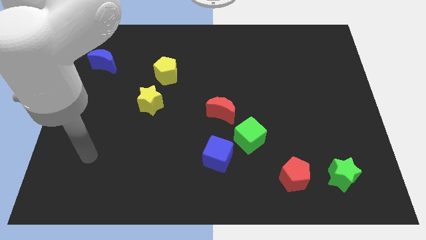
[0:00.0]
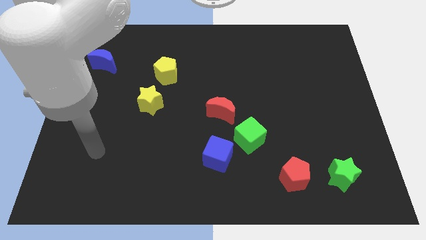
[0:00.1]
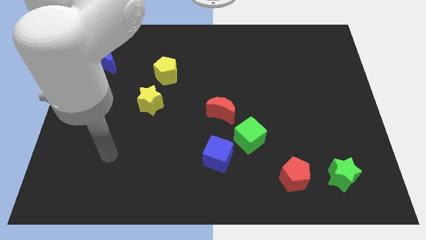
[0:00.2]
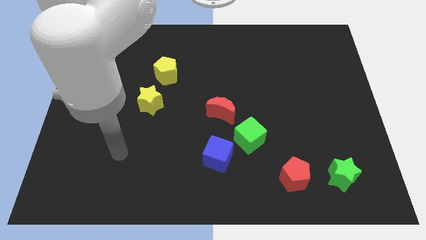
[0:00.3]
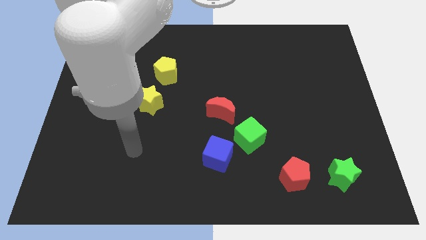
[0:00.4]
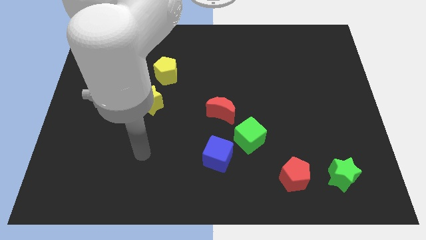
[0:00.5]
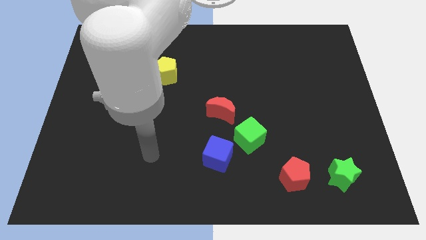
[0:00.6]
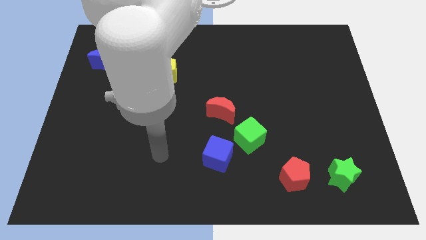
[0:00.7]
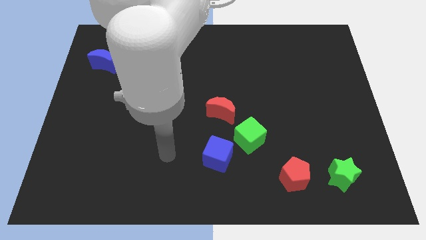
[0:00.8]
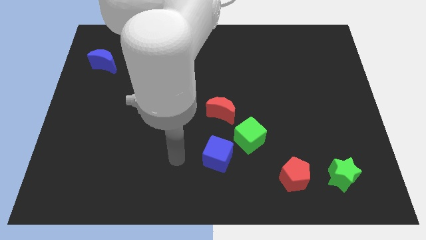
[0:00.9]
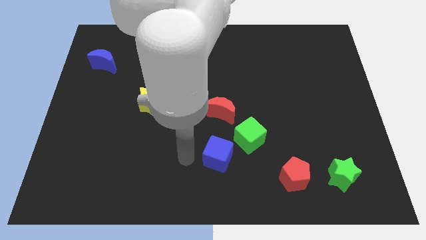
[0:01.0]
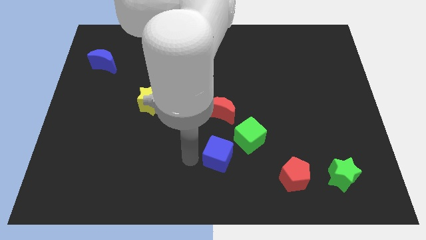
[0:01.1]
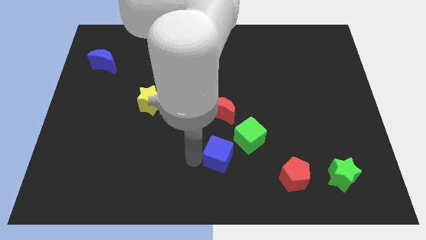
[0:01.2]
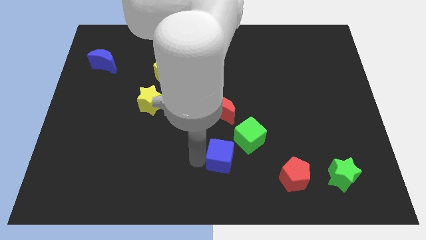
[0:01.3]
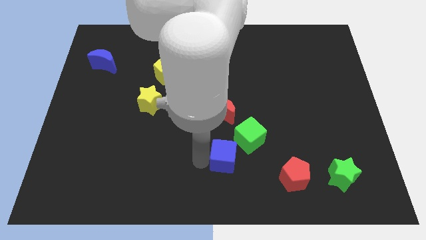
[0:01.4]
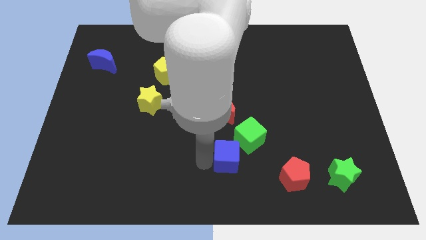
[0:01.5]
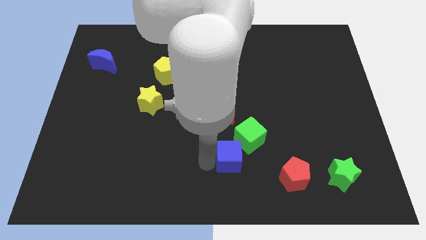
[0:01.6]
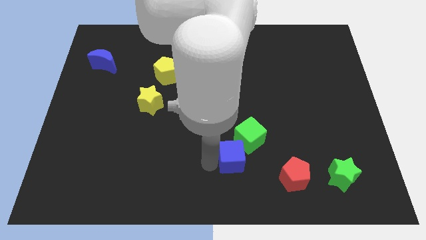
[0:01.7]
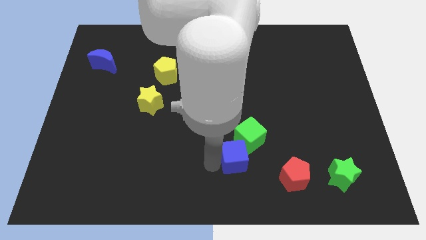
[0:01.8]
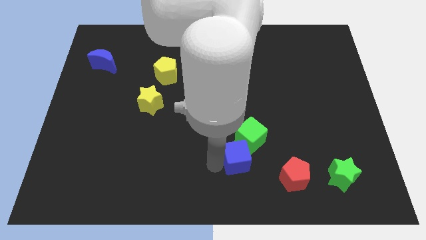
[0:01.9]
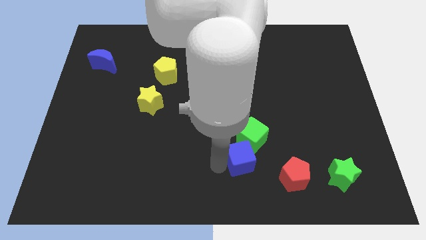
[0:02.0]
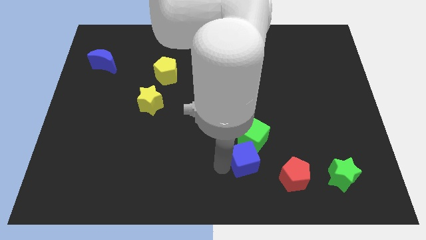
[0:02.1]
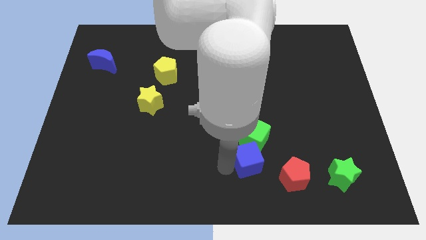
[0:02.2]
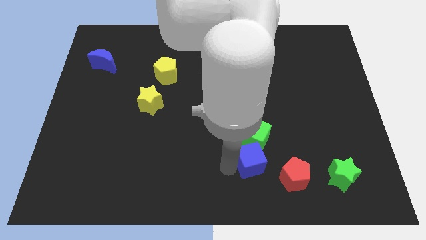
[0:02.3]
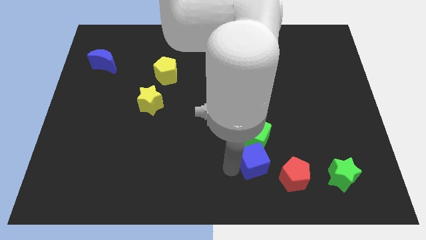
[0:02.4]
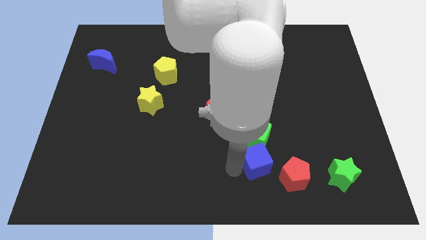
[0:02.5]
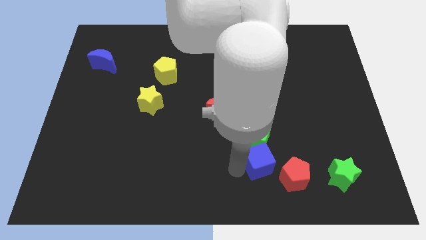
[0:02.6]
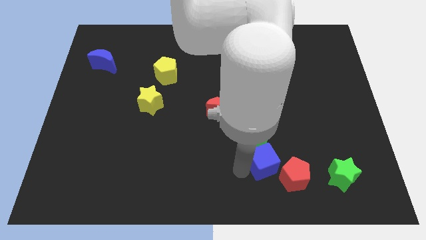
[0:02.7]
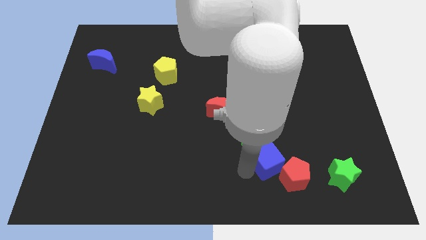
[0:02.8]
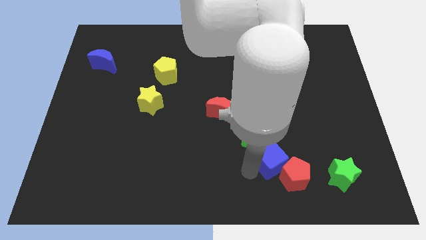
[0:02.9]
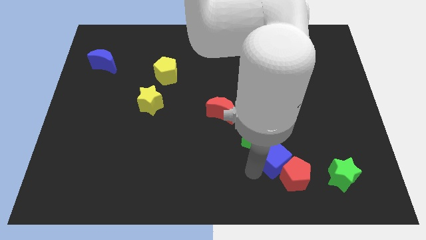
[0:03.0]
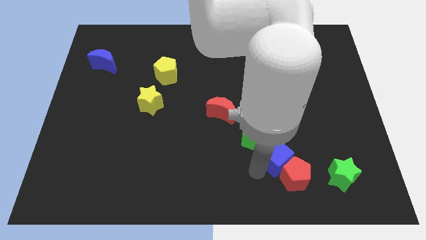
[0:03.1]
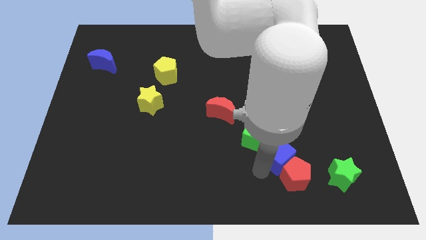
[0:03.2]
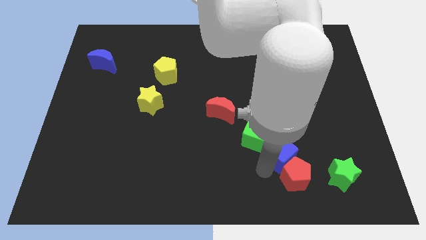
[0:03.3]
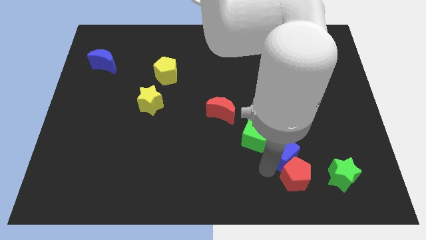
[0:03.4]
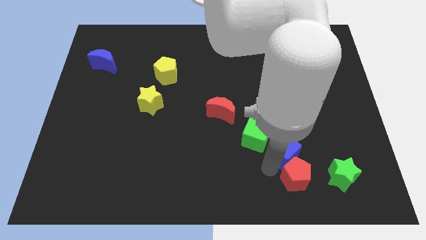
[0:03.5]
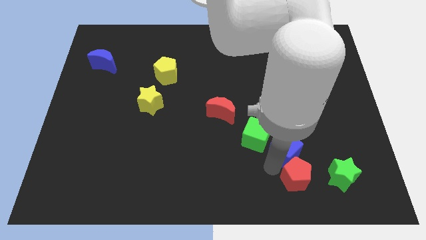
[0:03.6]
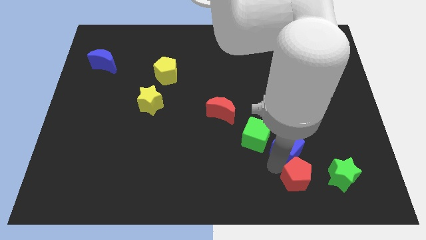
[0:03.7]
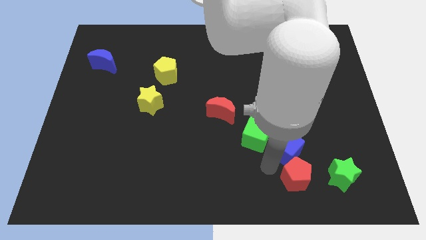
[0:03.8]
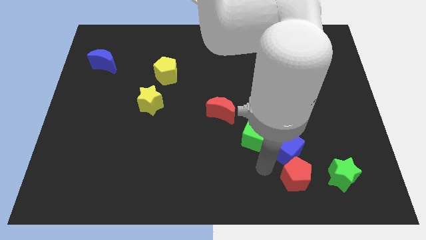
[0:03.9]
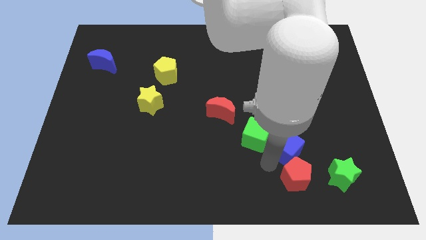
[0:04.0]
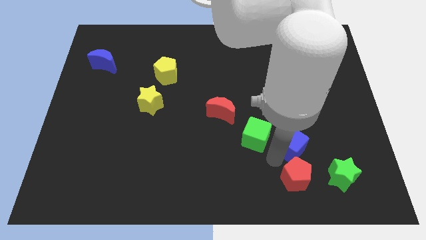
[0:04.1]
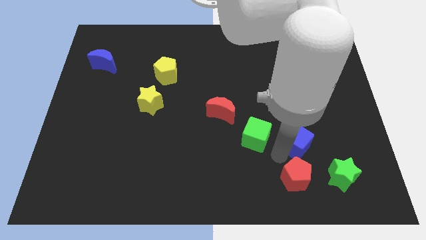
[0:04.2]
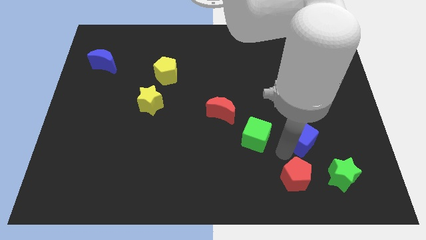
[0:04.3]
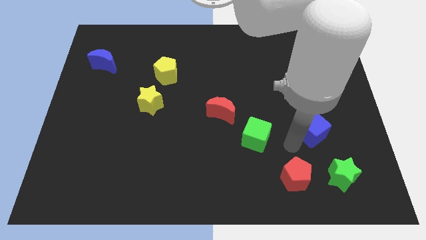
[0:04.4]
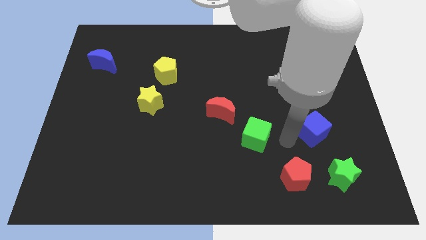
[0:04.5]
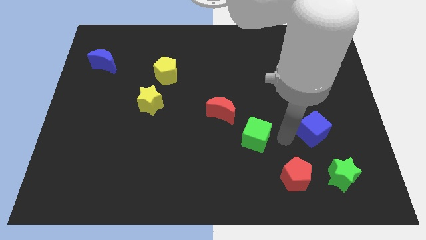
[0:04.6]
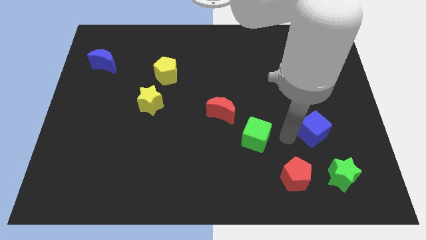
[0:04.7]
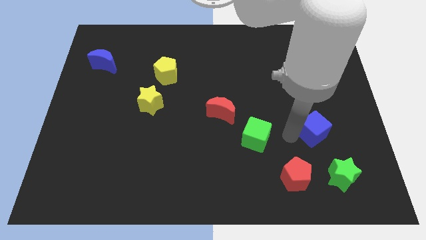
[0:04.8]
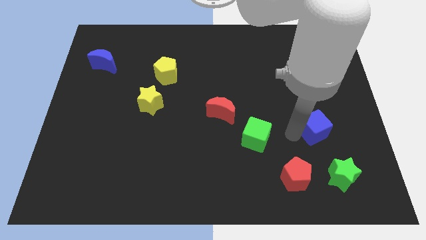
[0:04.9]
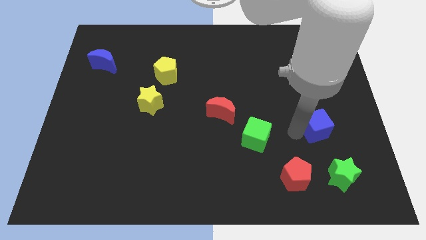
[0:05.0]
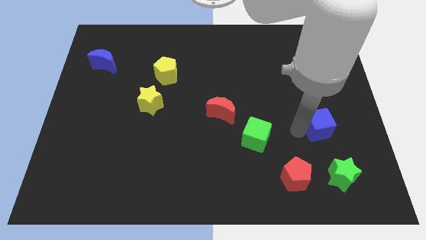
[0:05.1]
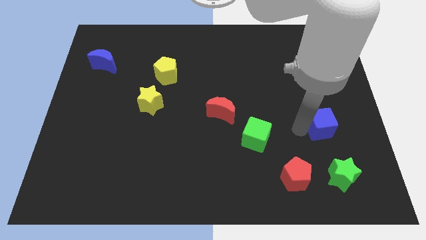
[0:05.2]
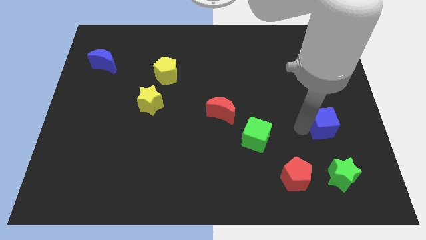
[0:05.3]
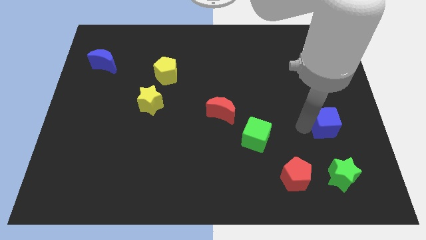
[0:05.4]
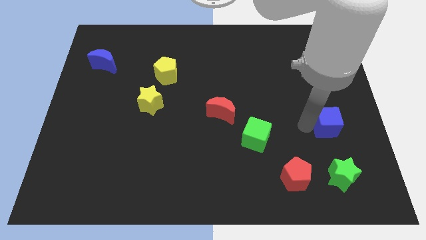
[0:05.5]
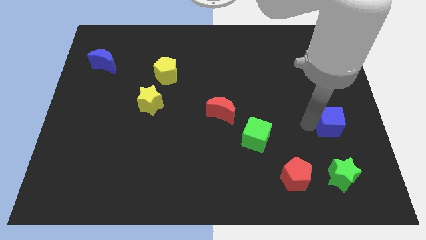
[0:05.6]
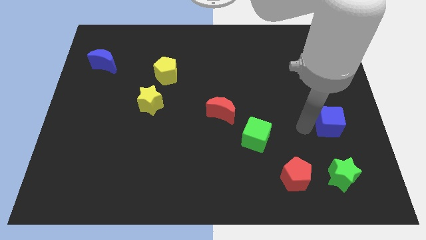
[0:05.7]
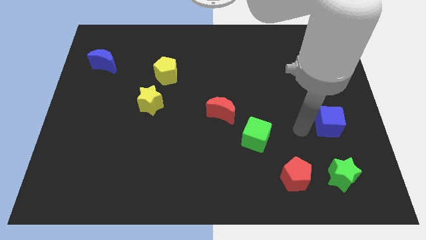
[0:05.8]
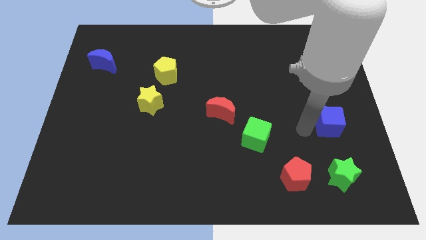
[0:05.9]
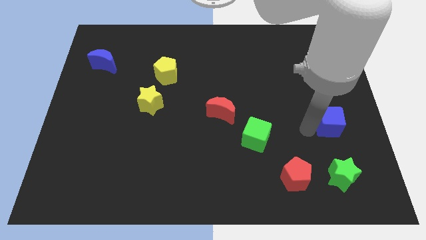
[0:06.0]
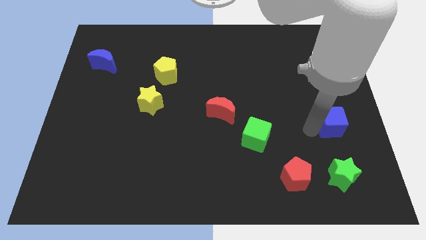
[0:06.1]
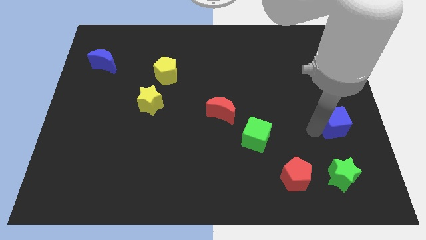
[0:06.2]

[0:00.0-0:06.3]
move the blue cube to the center right

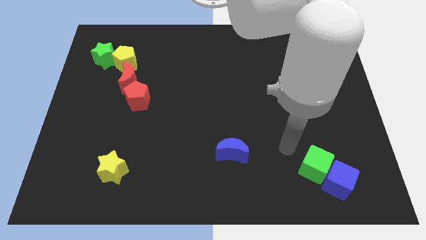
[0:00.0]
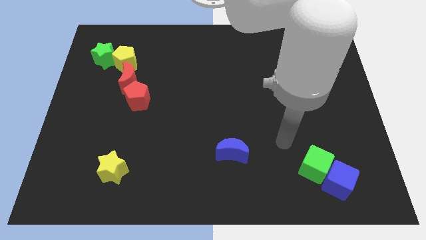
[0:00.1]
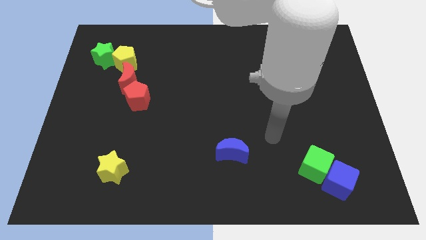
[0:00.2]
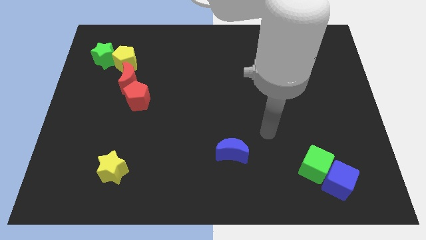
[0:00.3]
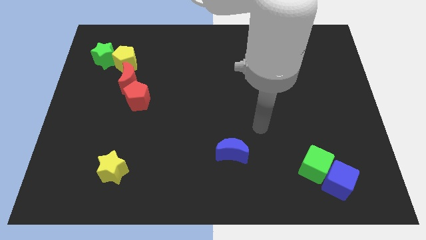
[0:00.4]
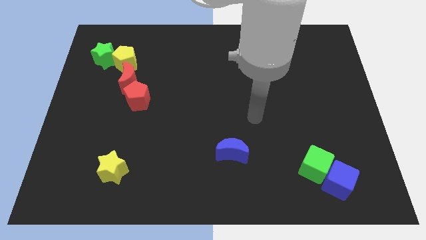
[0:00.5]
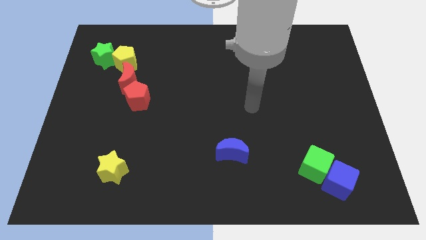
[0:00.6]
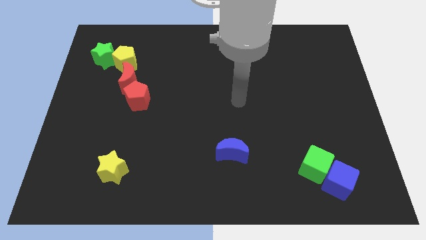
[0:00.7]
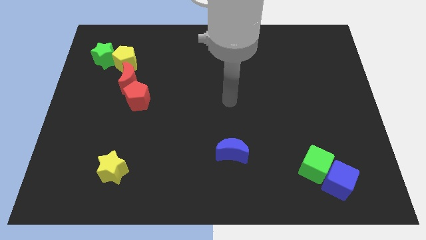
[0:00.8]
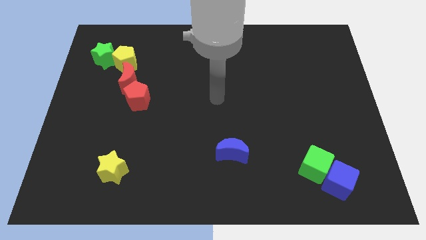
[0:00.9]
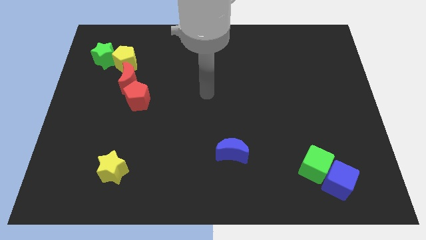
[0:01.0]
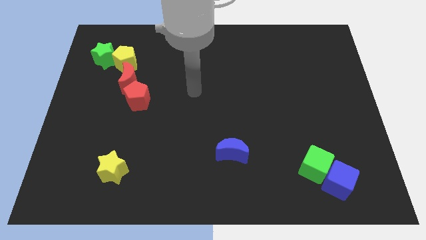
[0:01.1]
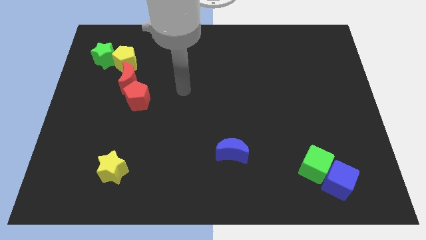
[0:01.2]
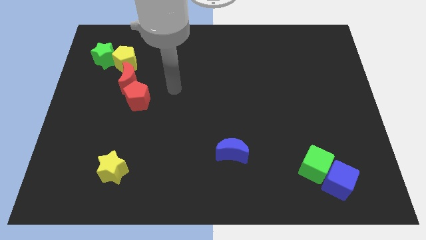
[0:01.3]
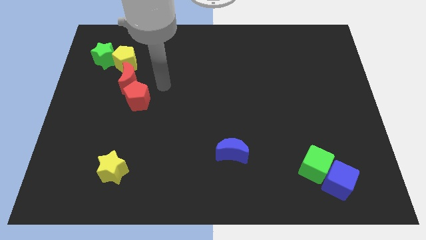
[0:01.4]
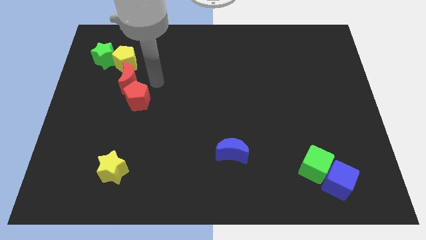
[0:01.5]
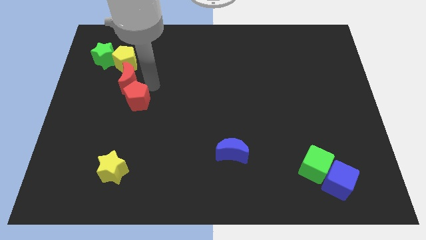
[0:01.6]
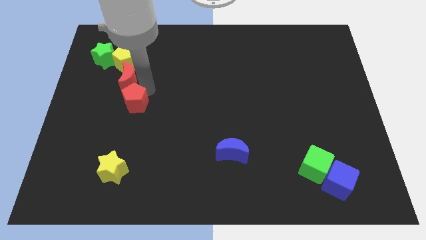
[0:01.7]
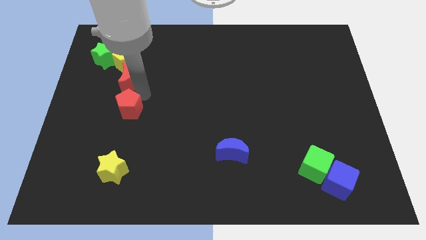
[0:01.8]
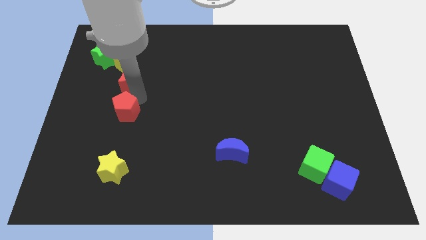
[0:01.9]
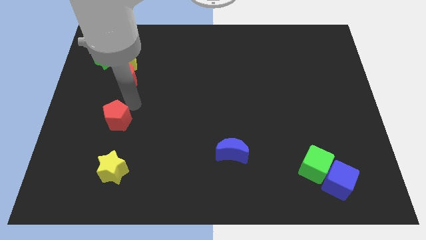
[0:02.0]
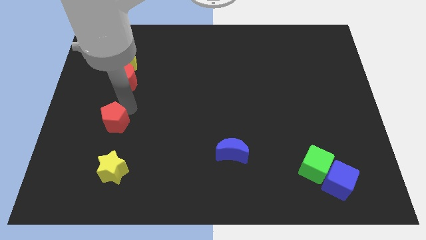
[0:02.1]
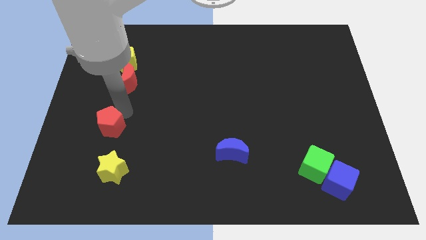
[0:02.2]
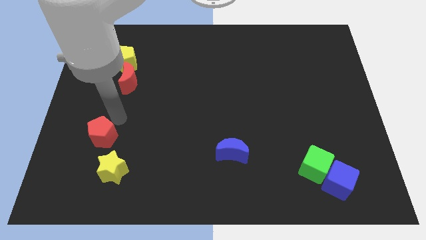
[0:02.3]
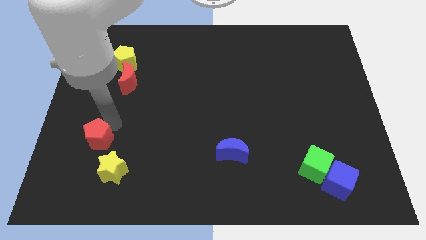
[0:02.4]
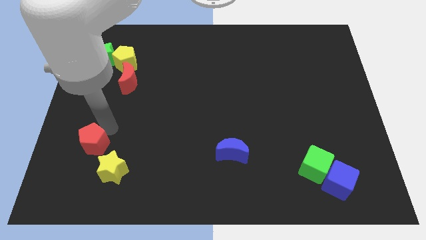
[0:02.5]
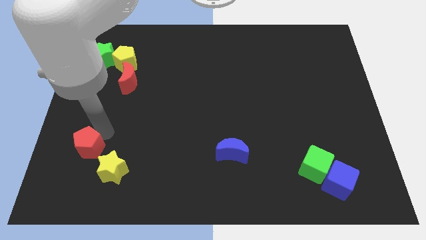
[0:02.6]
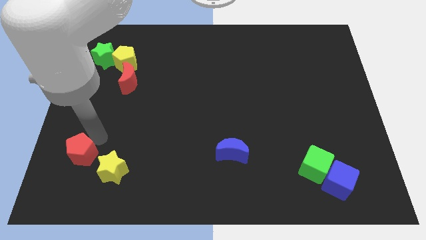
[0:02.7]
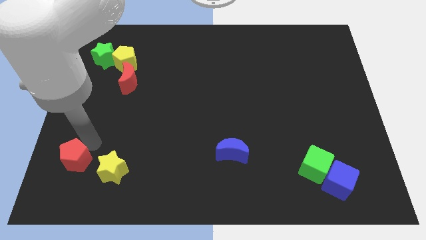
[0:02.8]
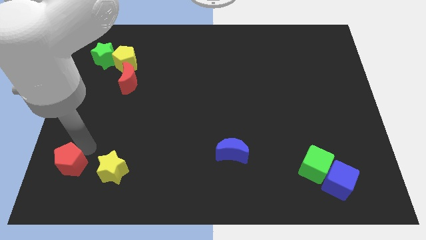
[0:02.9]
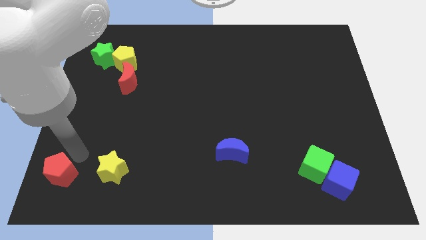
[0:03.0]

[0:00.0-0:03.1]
push the red pentagon to the bottom left corner
